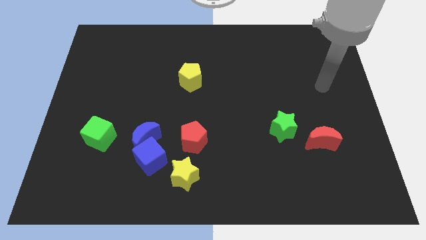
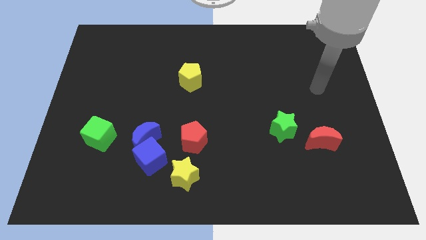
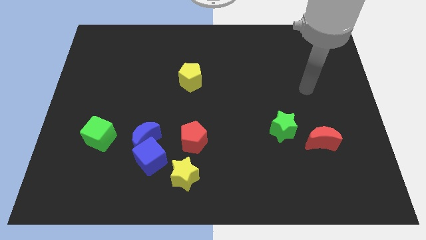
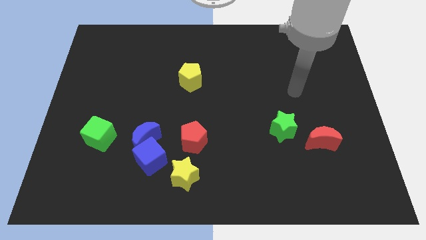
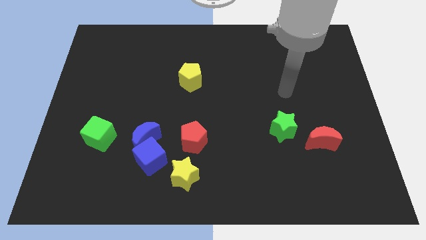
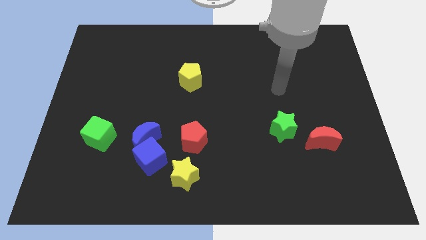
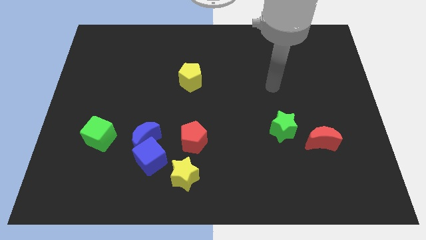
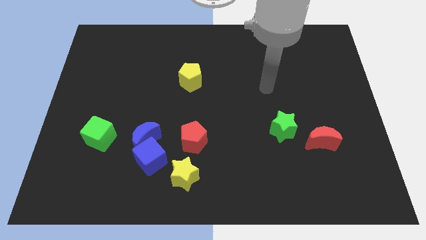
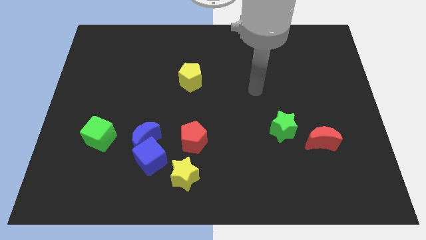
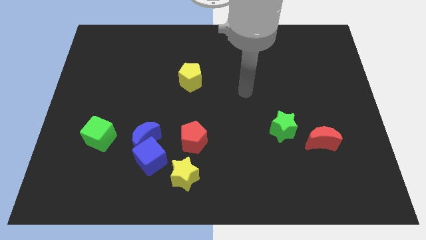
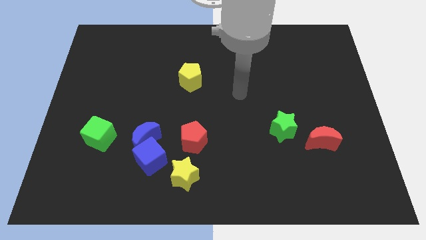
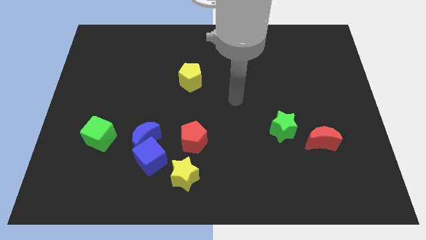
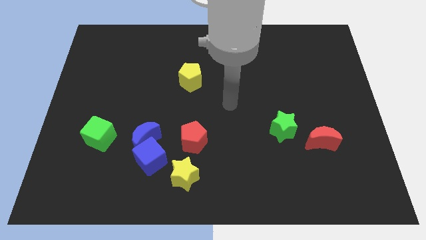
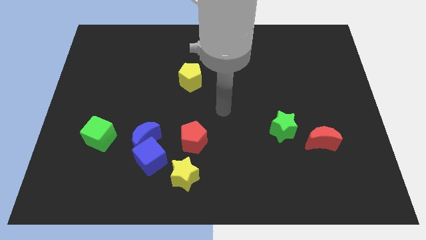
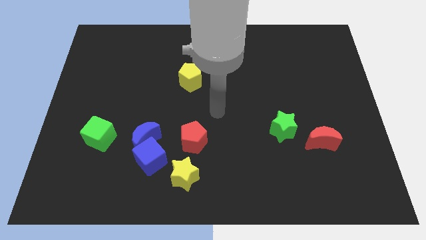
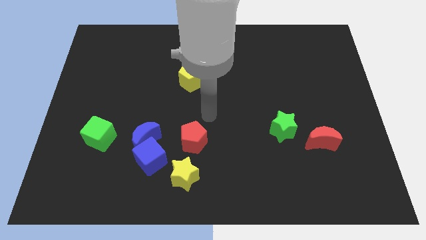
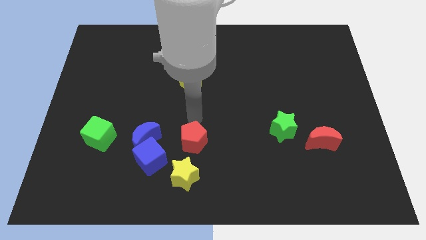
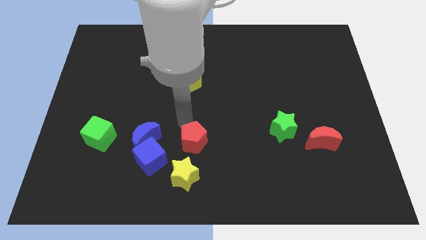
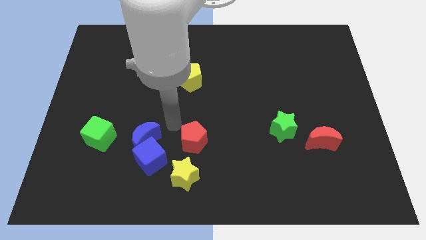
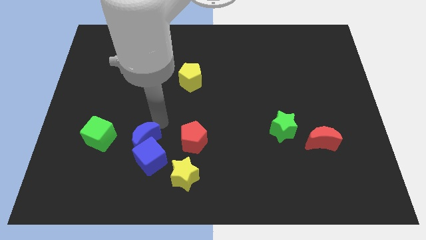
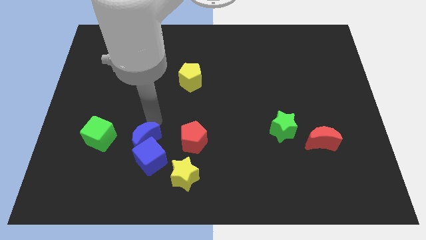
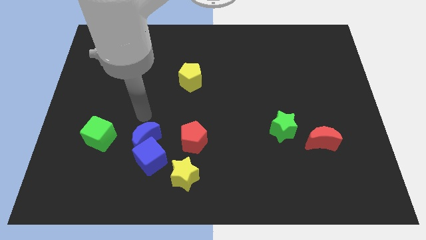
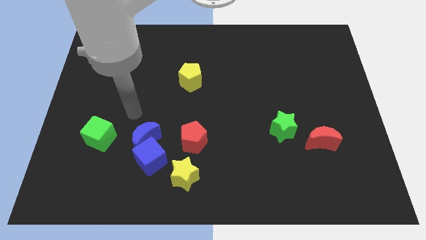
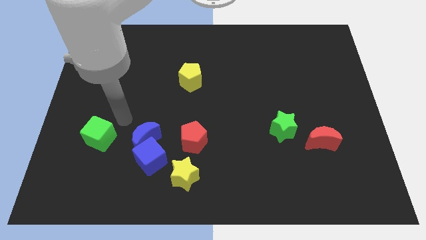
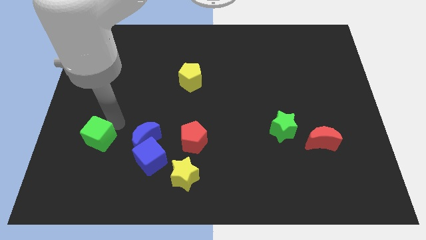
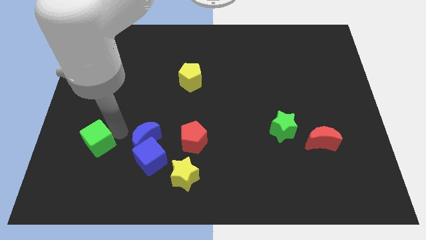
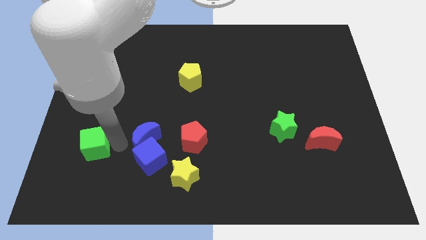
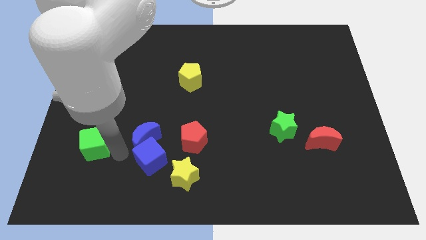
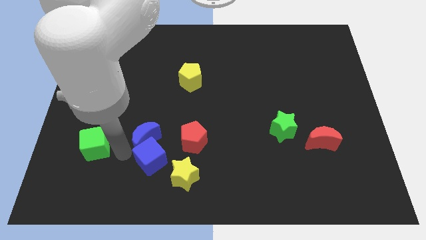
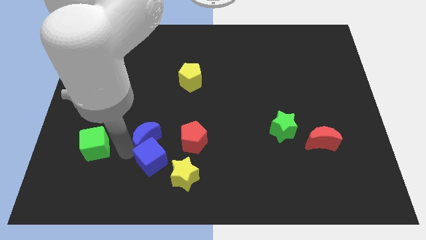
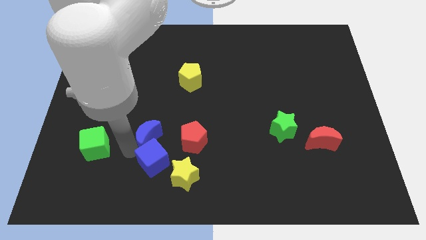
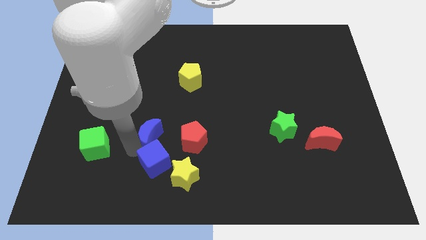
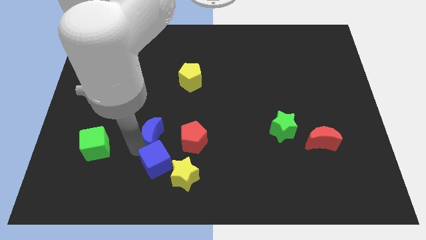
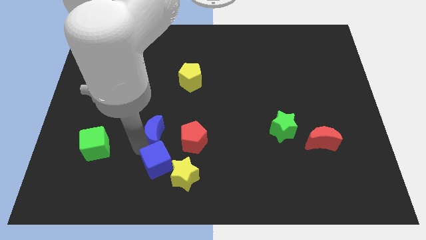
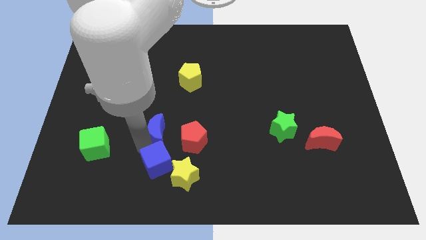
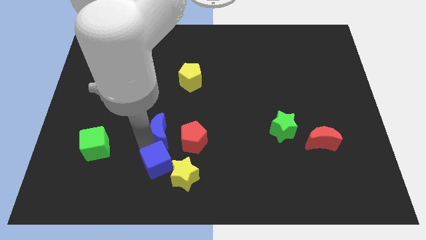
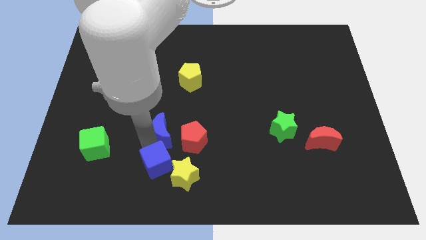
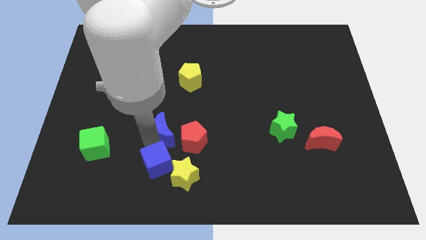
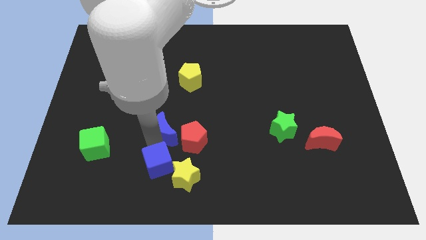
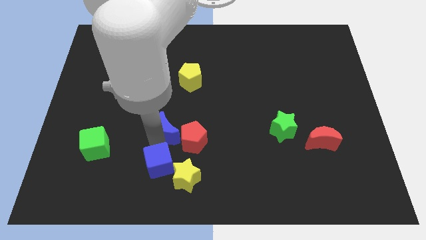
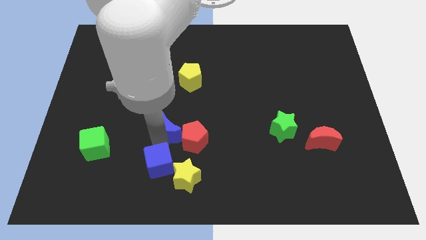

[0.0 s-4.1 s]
separate the blue moon from the blue cube and green cube

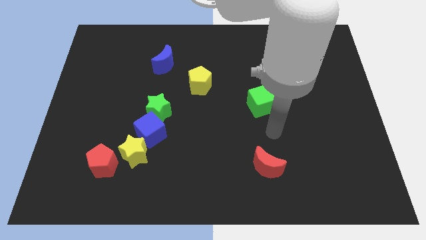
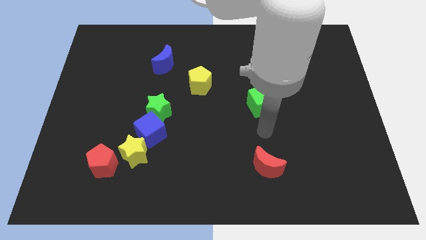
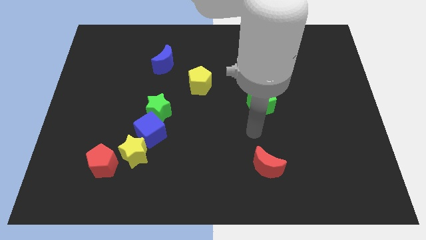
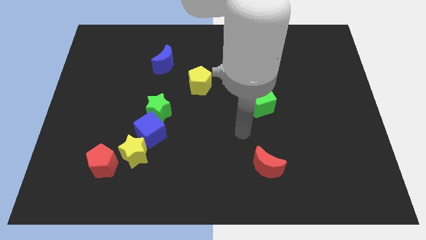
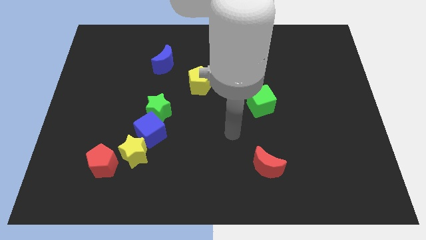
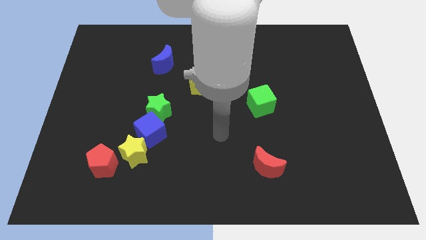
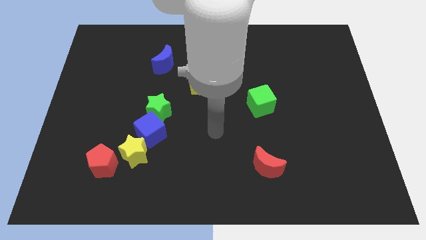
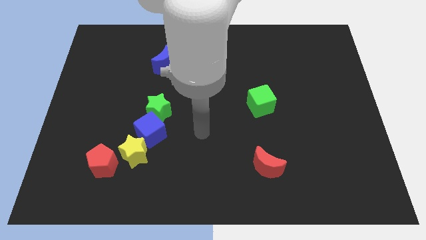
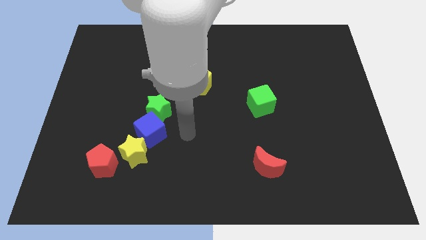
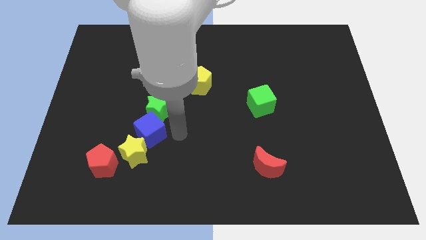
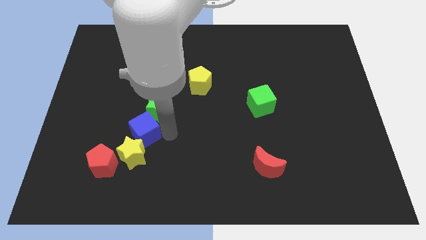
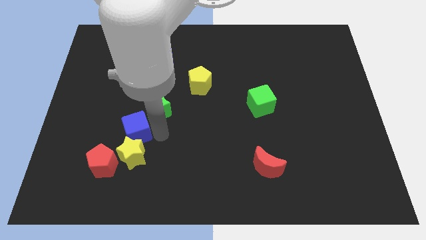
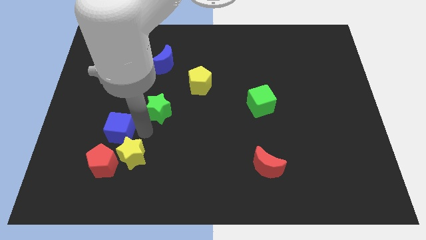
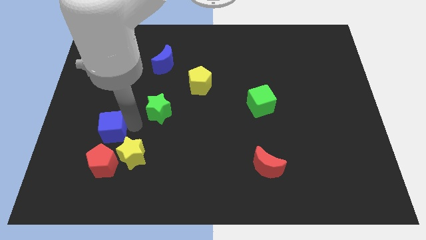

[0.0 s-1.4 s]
move the green star away from the blue cube

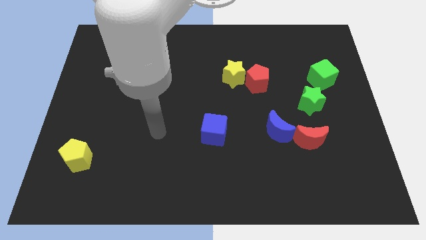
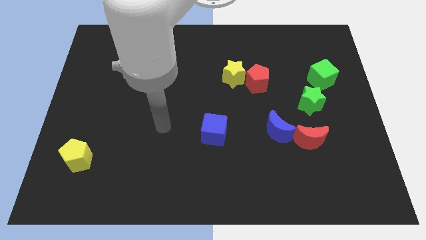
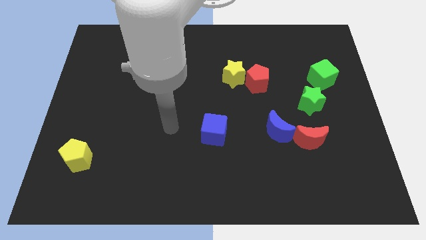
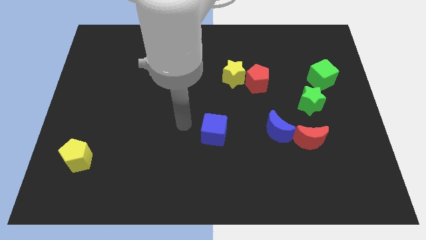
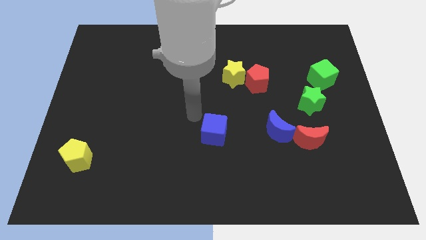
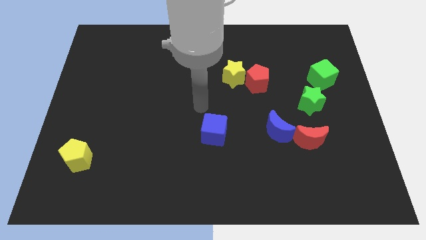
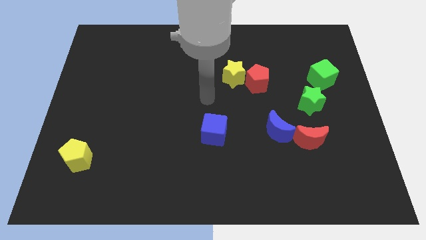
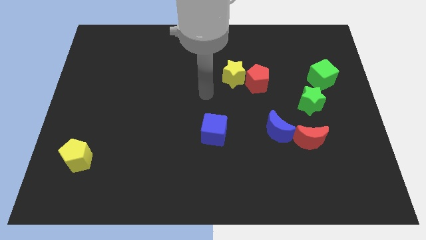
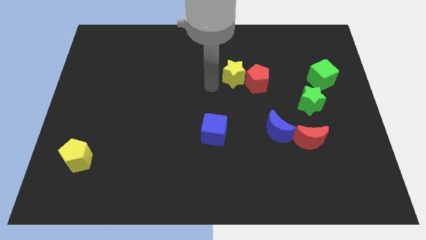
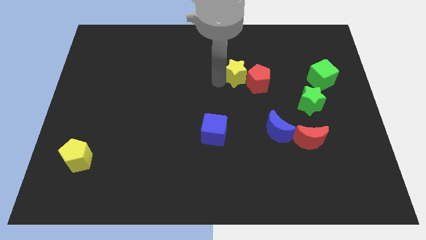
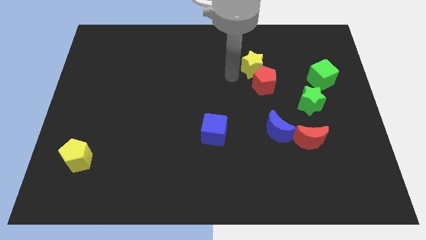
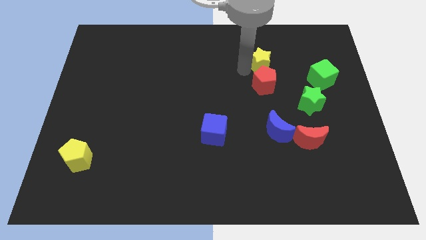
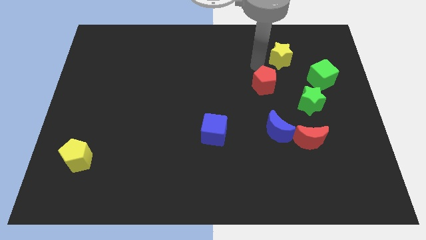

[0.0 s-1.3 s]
pull the red pentagon apart from the yellow star

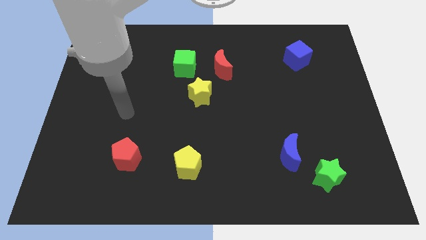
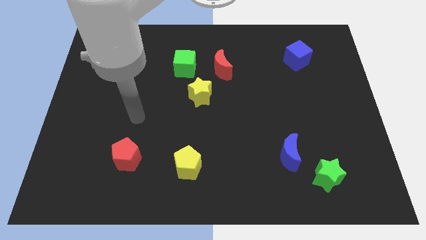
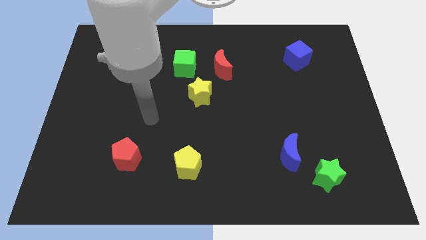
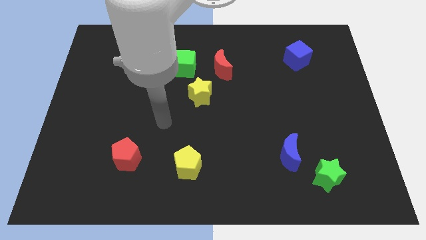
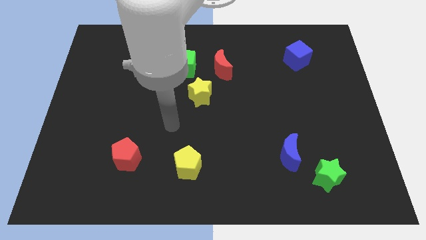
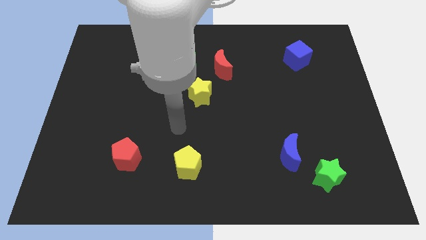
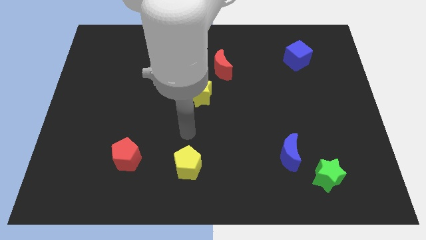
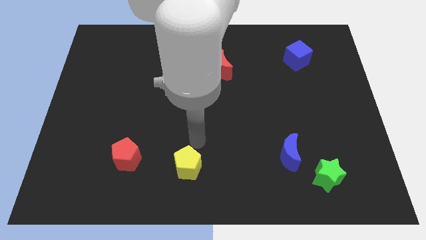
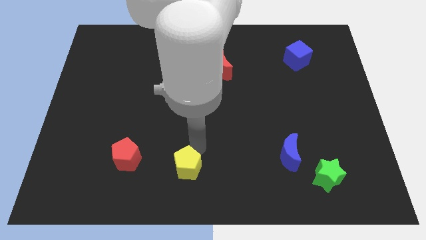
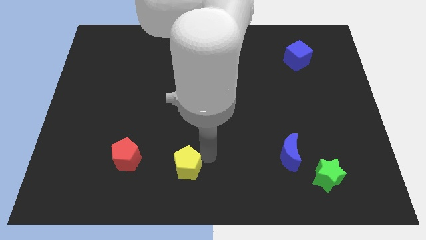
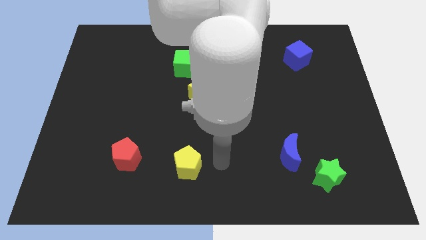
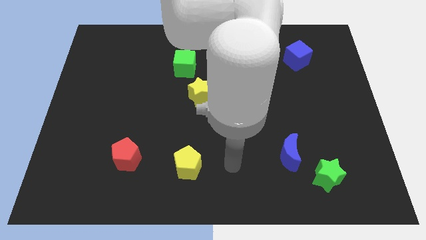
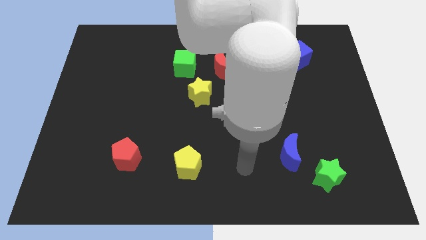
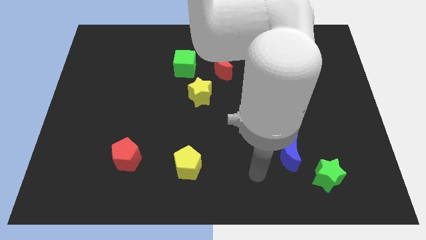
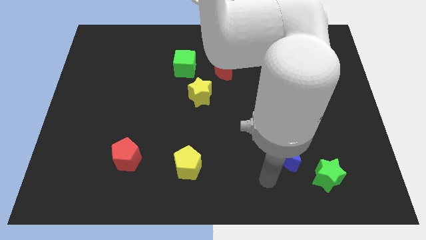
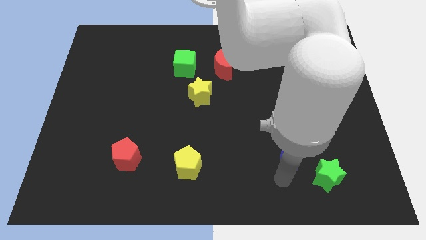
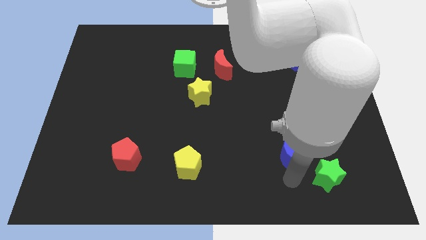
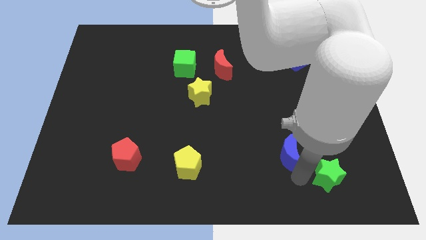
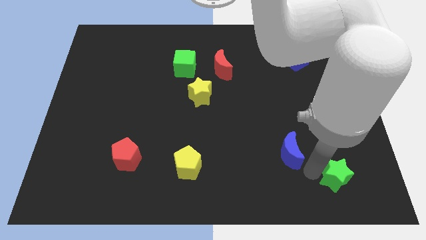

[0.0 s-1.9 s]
move the blue moon away from the green star

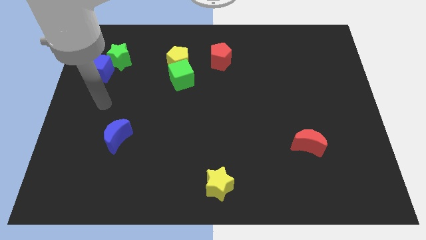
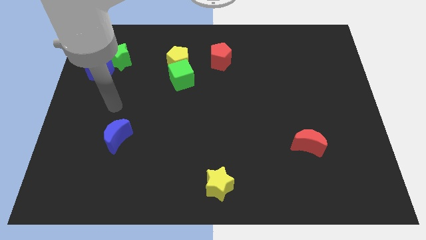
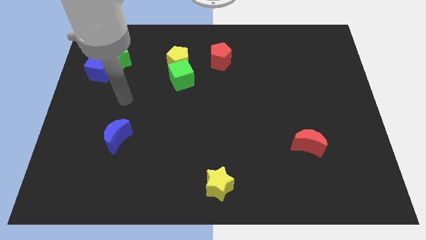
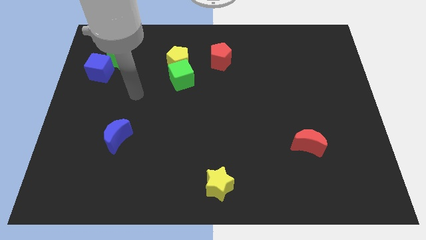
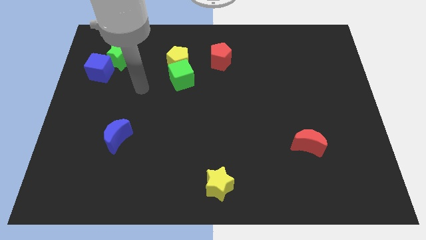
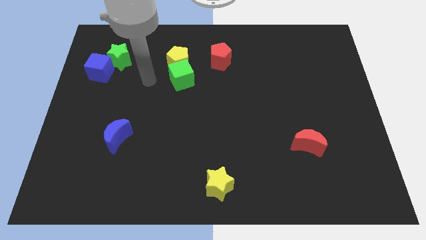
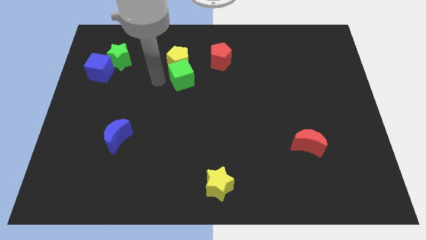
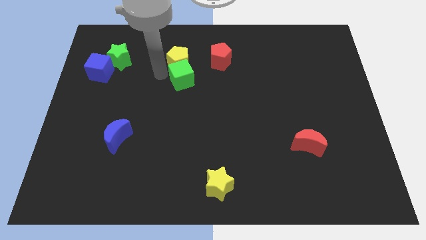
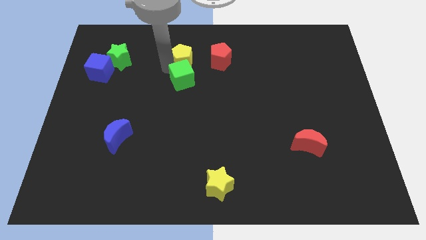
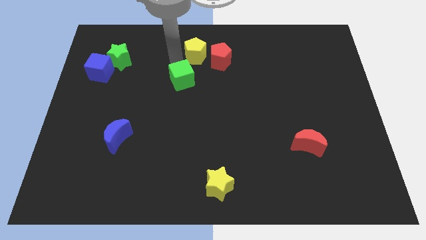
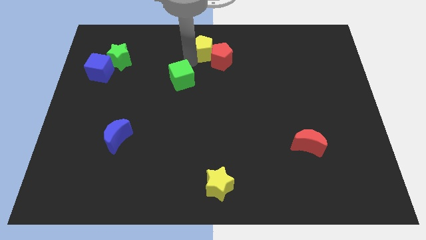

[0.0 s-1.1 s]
pull the green cube apart from the yellow pentagon
